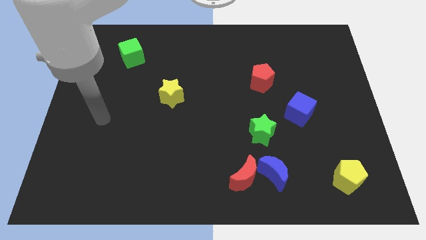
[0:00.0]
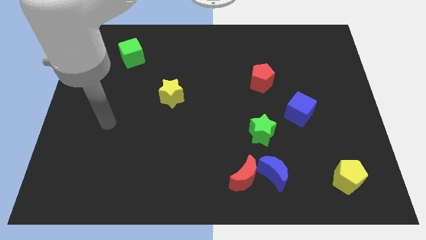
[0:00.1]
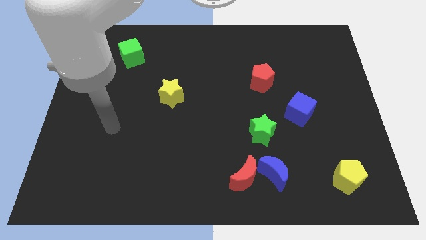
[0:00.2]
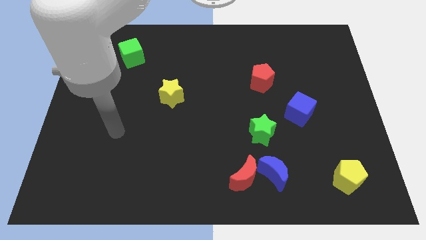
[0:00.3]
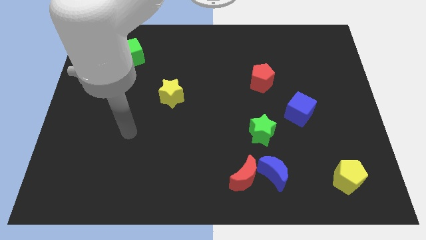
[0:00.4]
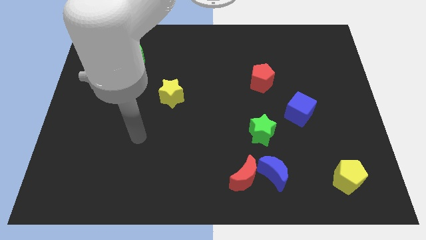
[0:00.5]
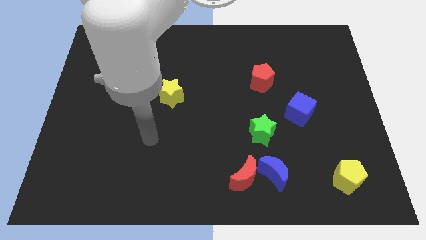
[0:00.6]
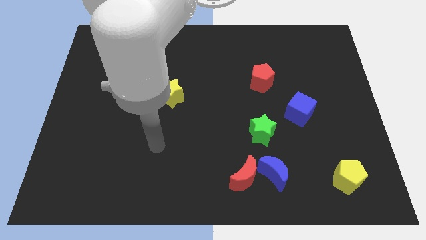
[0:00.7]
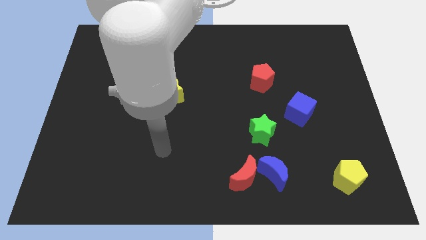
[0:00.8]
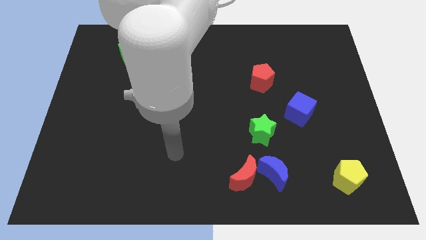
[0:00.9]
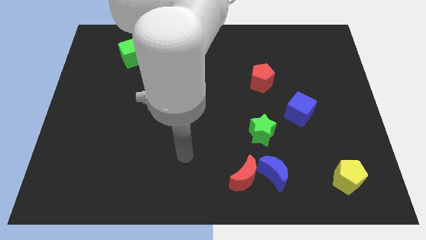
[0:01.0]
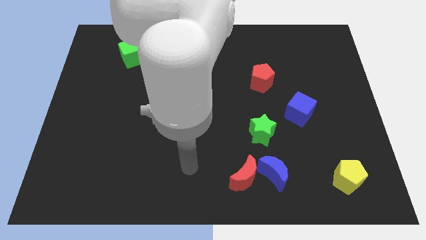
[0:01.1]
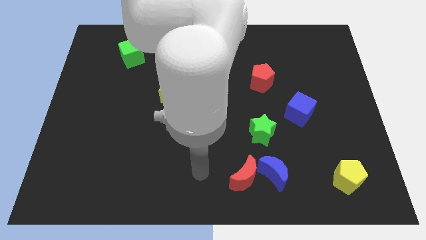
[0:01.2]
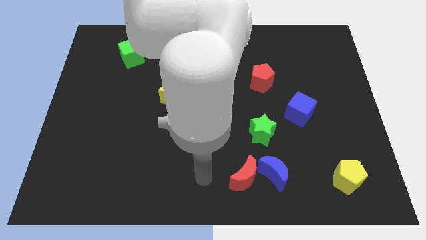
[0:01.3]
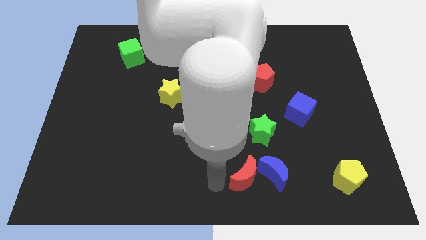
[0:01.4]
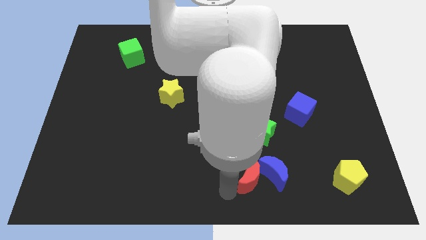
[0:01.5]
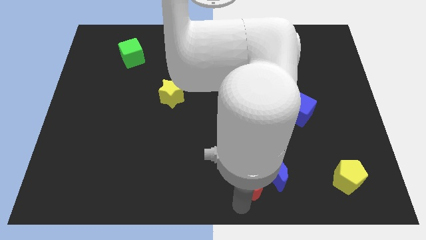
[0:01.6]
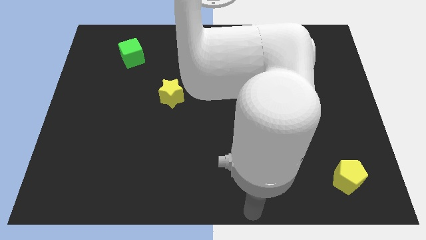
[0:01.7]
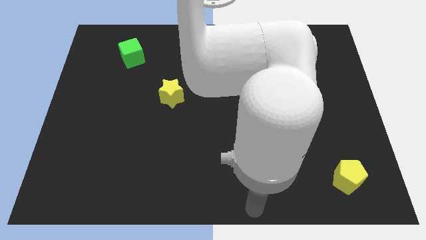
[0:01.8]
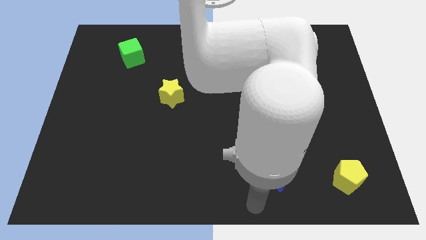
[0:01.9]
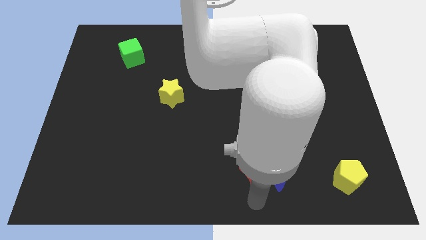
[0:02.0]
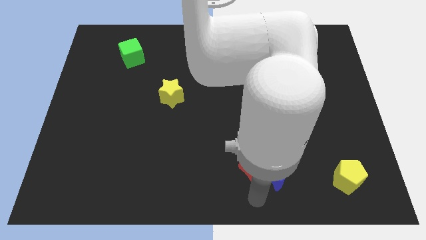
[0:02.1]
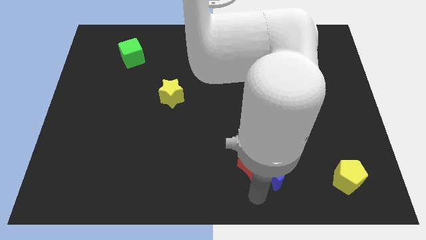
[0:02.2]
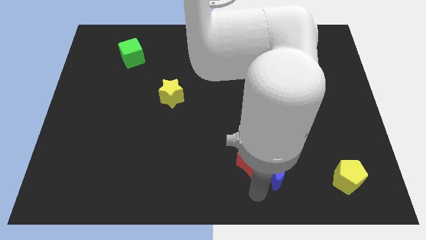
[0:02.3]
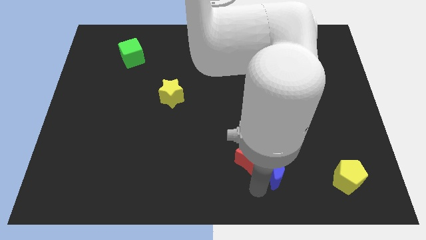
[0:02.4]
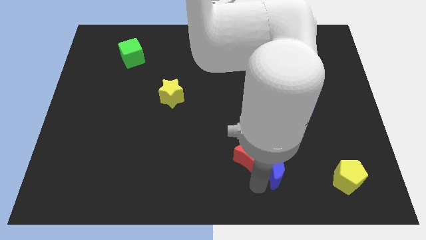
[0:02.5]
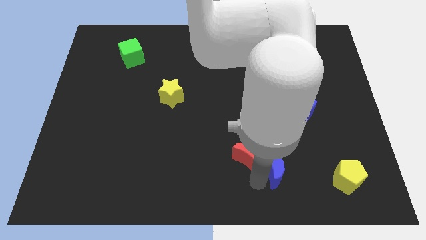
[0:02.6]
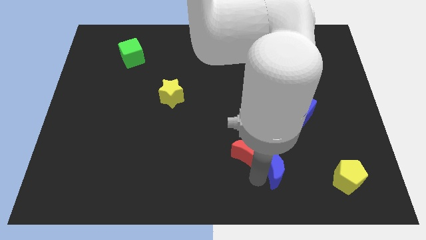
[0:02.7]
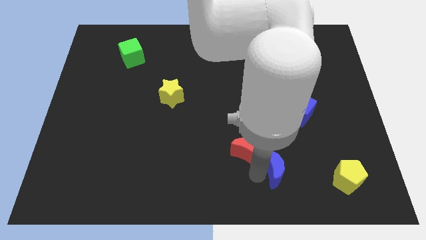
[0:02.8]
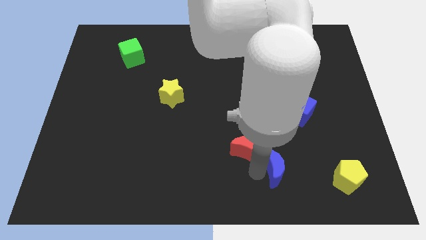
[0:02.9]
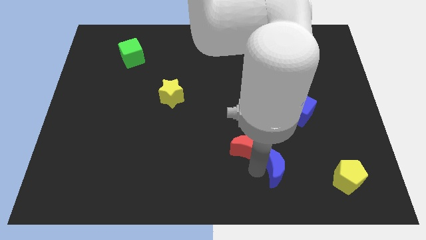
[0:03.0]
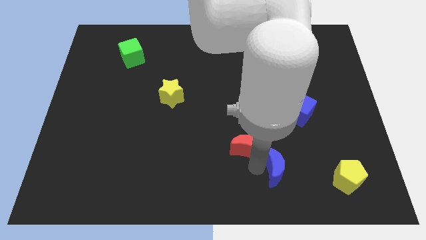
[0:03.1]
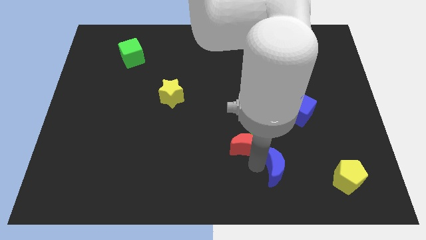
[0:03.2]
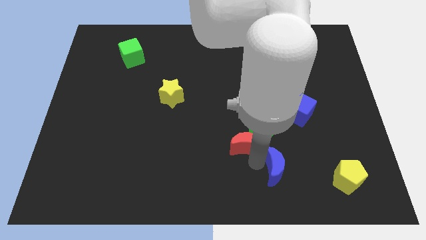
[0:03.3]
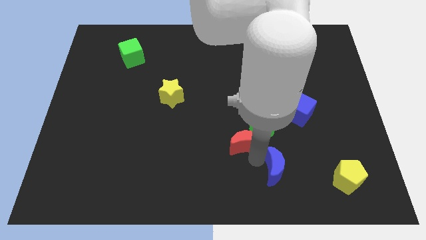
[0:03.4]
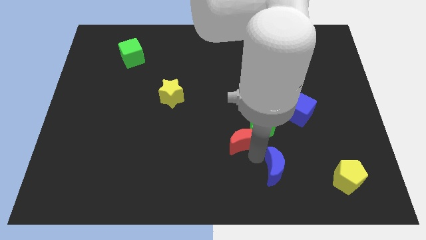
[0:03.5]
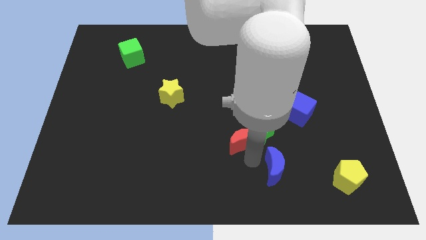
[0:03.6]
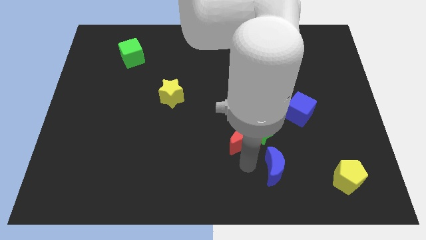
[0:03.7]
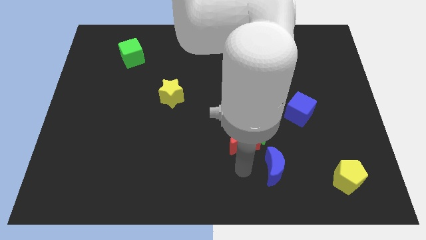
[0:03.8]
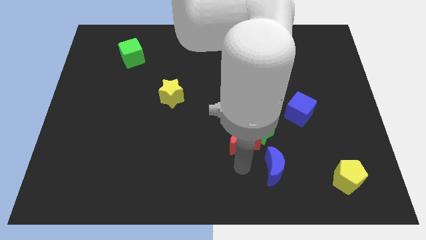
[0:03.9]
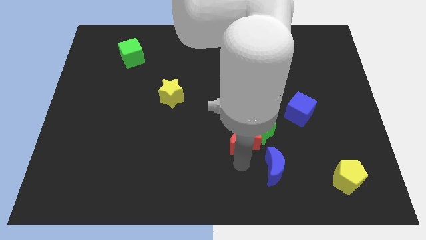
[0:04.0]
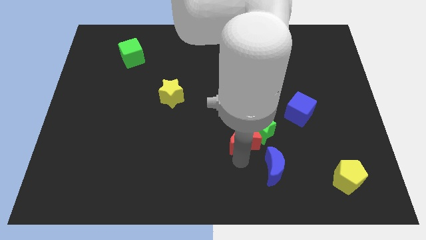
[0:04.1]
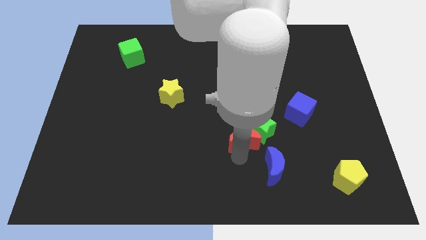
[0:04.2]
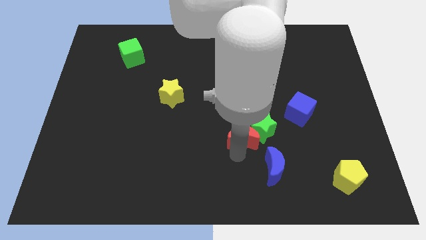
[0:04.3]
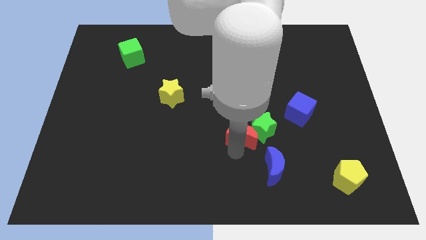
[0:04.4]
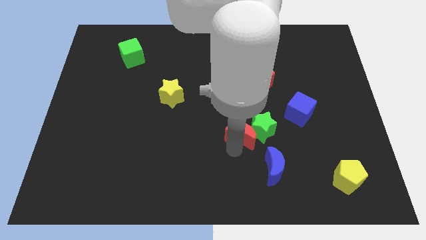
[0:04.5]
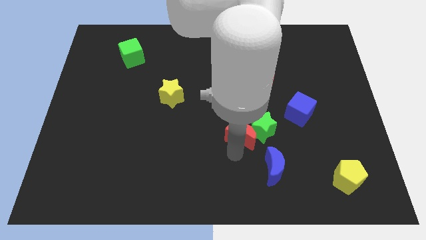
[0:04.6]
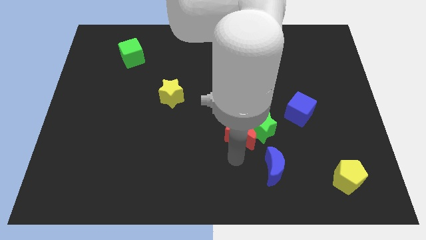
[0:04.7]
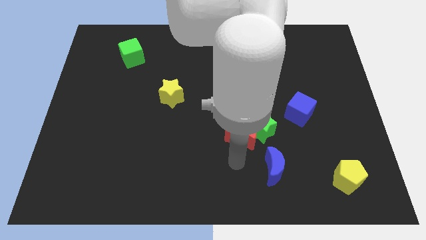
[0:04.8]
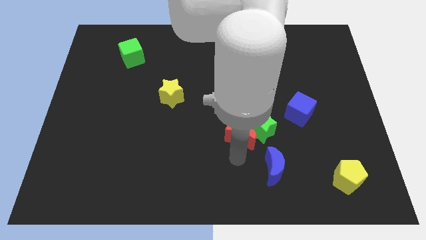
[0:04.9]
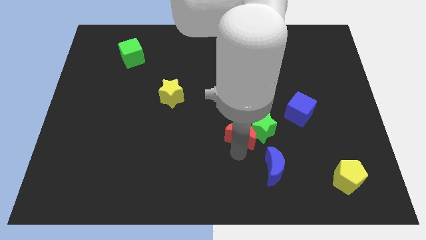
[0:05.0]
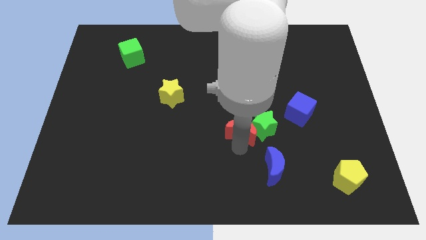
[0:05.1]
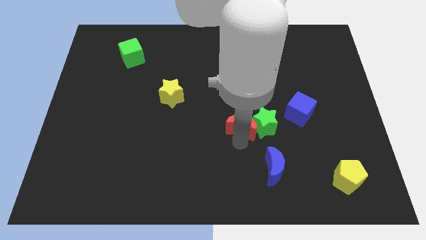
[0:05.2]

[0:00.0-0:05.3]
push the red moon just left of the blue cube

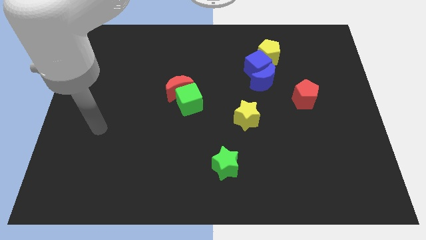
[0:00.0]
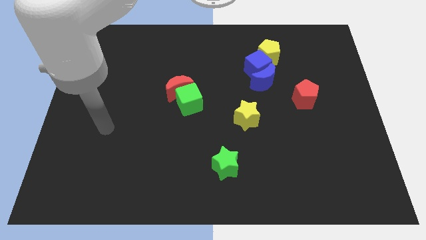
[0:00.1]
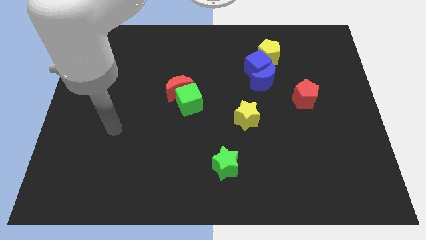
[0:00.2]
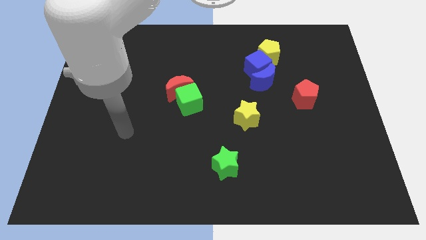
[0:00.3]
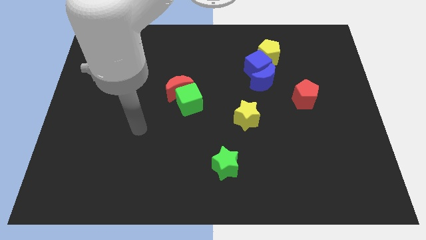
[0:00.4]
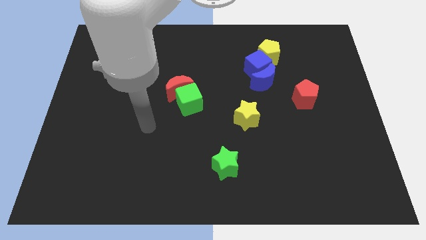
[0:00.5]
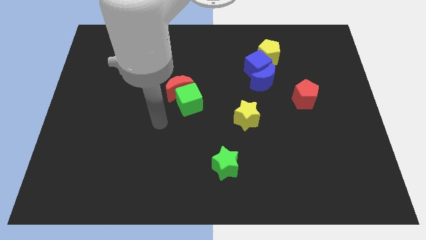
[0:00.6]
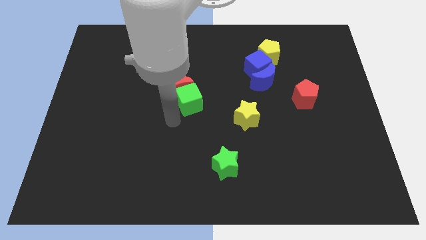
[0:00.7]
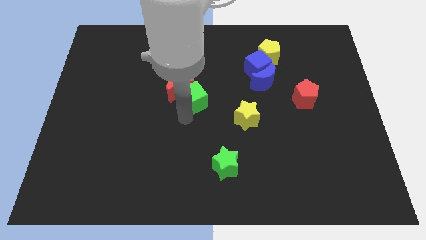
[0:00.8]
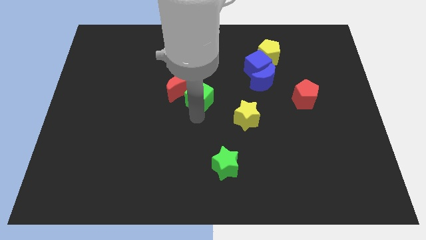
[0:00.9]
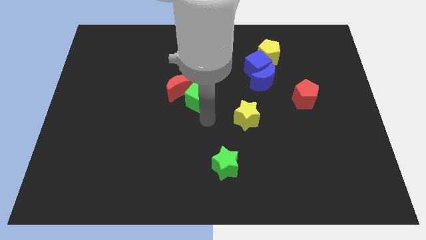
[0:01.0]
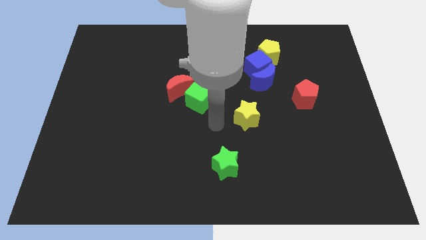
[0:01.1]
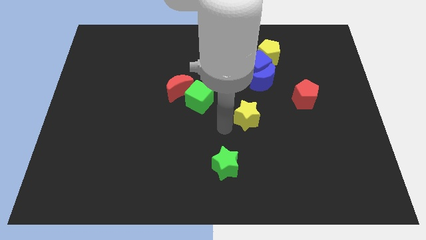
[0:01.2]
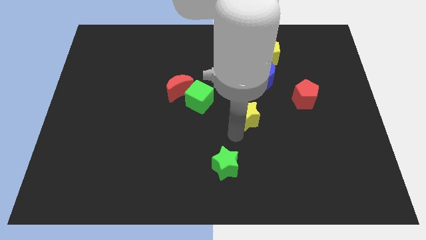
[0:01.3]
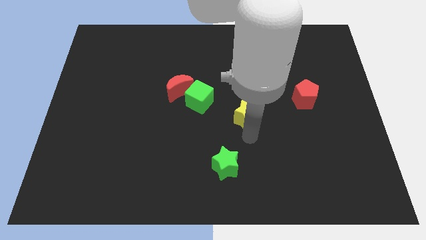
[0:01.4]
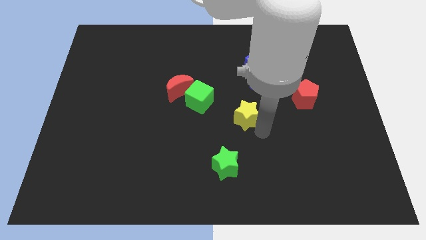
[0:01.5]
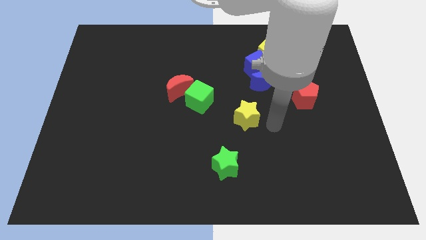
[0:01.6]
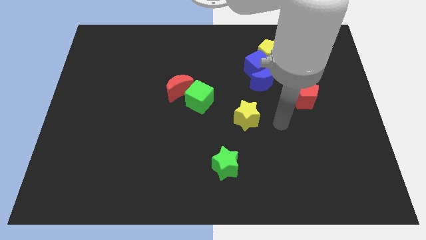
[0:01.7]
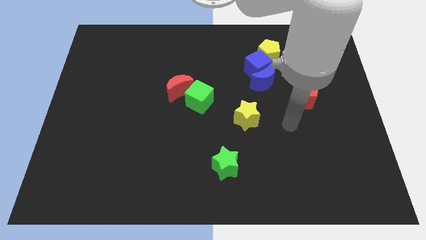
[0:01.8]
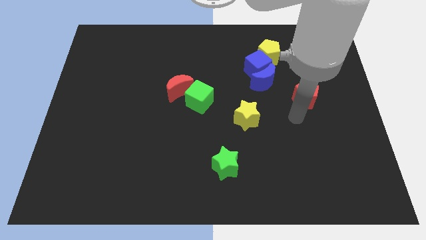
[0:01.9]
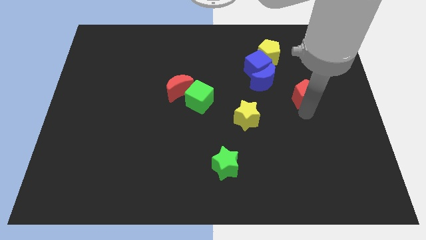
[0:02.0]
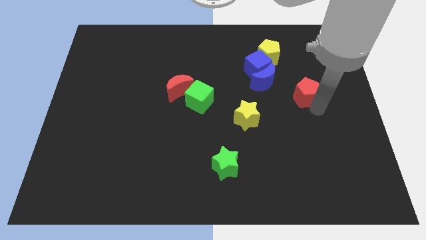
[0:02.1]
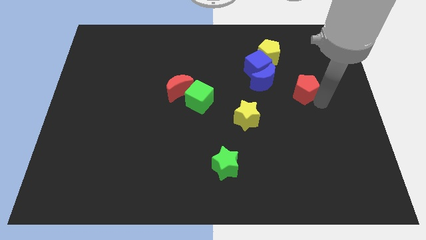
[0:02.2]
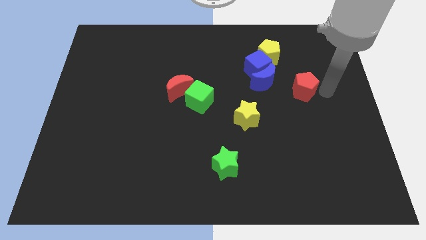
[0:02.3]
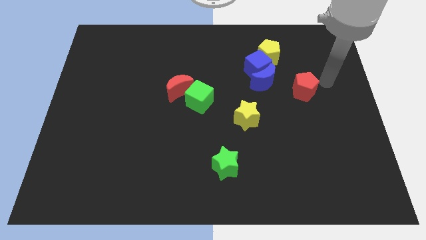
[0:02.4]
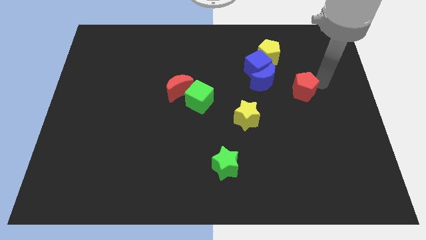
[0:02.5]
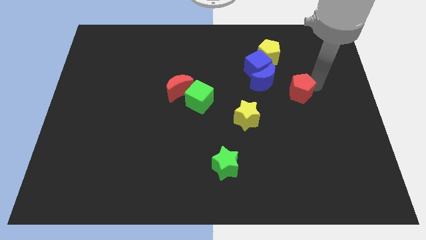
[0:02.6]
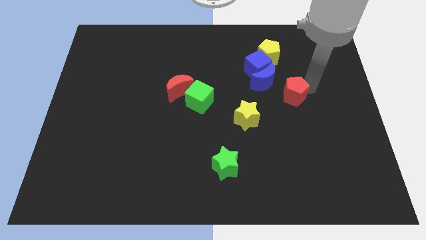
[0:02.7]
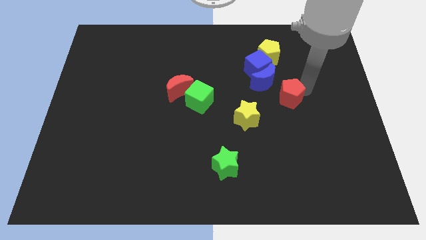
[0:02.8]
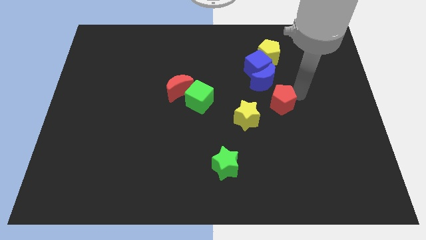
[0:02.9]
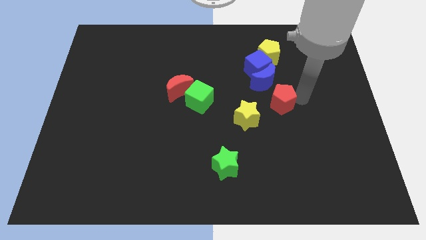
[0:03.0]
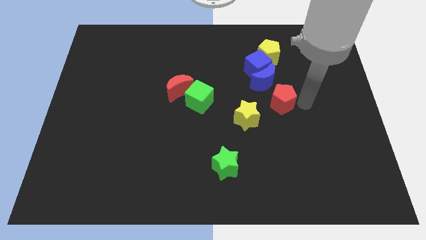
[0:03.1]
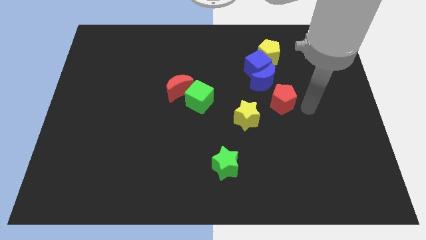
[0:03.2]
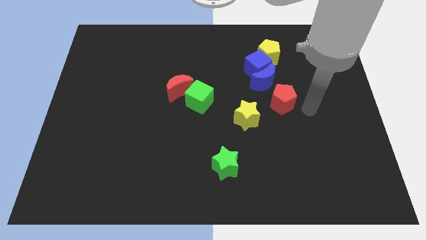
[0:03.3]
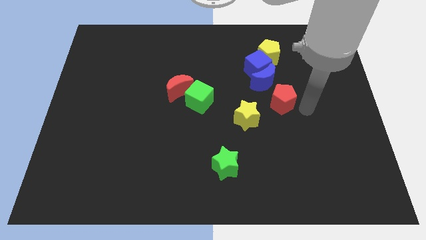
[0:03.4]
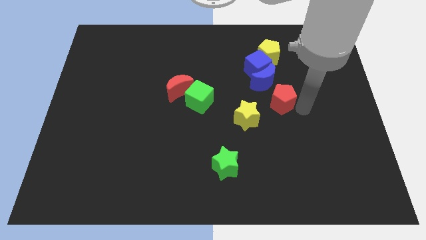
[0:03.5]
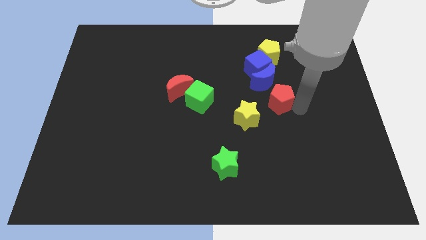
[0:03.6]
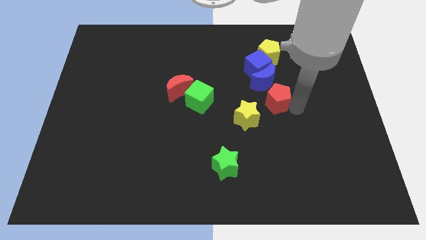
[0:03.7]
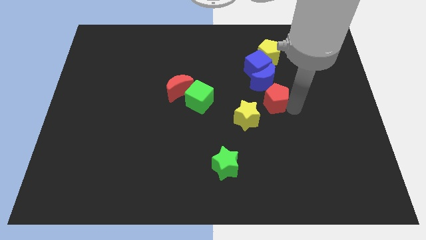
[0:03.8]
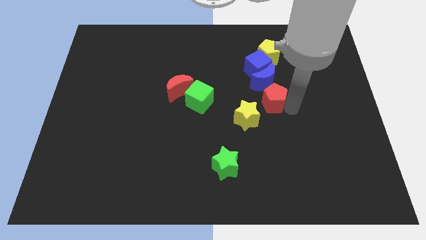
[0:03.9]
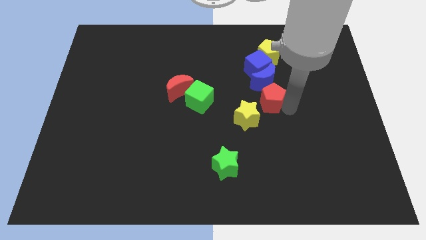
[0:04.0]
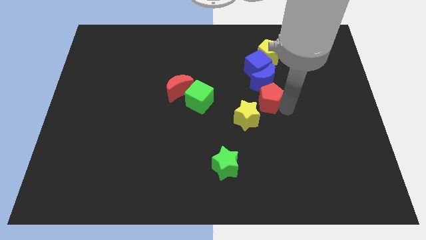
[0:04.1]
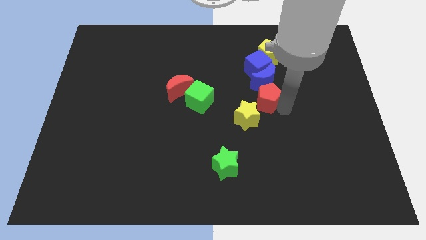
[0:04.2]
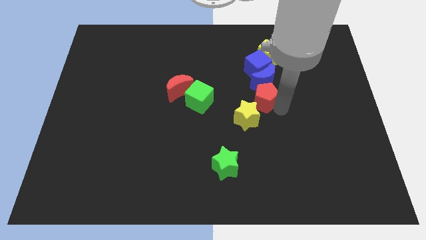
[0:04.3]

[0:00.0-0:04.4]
put the red pentagon to the top side of the yellow star
